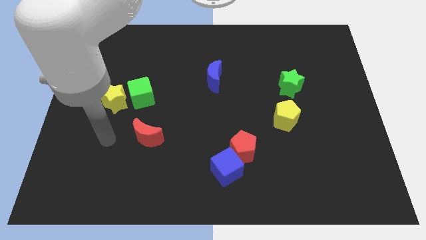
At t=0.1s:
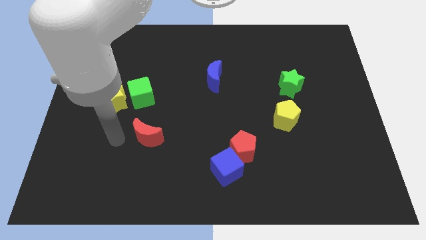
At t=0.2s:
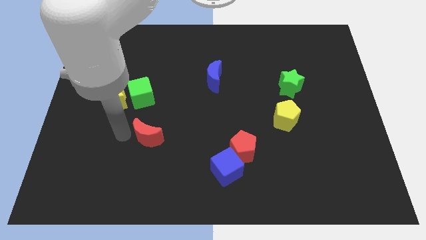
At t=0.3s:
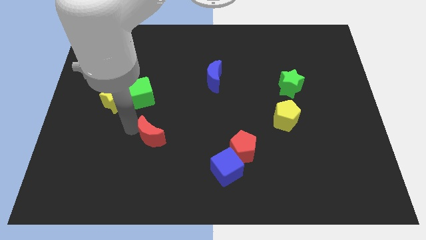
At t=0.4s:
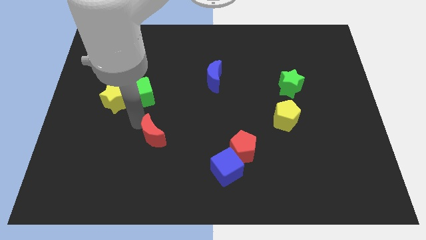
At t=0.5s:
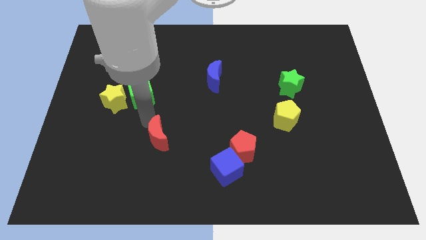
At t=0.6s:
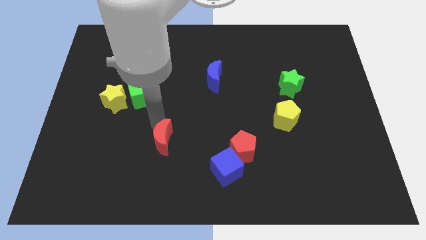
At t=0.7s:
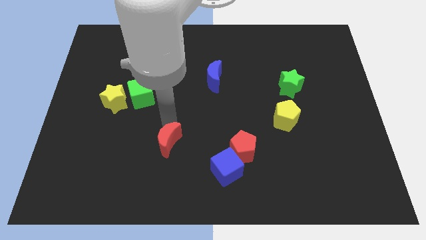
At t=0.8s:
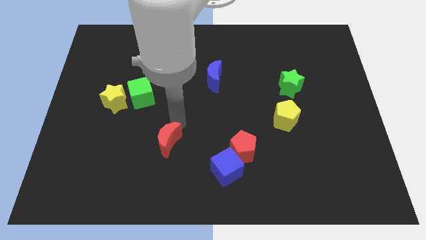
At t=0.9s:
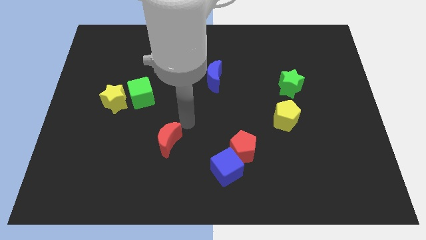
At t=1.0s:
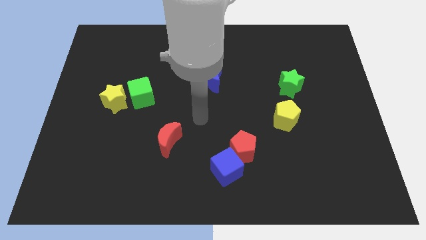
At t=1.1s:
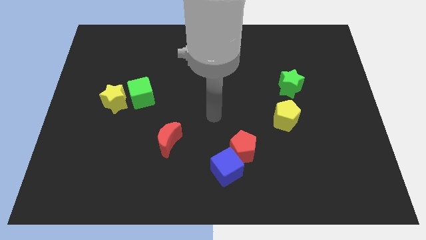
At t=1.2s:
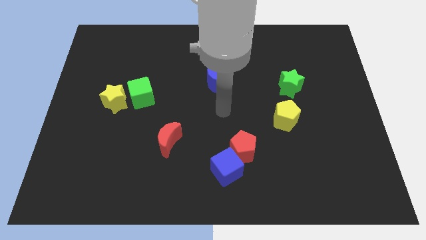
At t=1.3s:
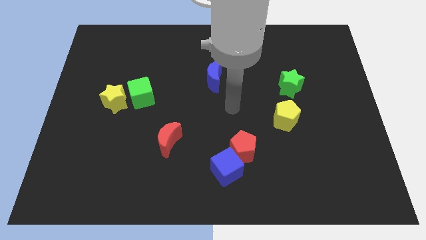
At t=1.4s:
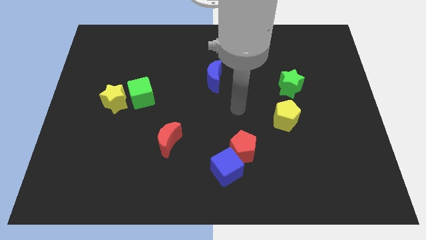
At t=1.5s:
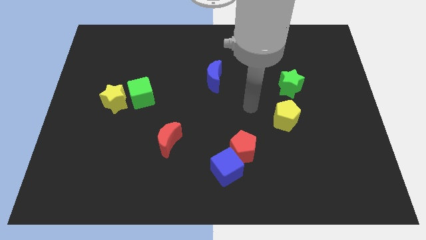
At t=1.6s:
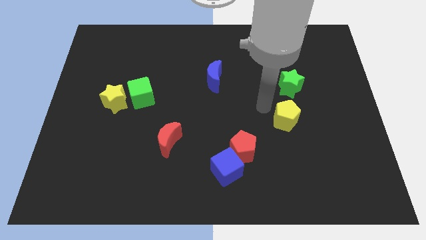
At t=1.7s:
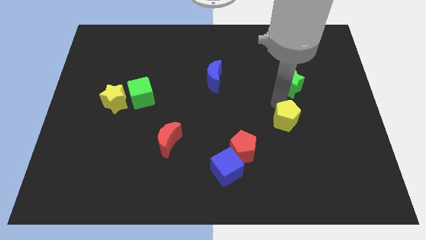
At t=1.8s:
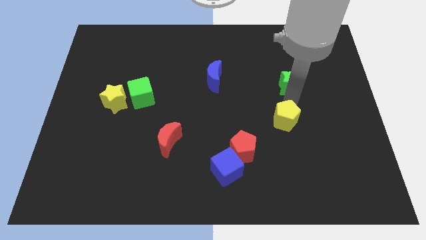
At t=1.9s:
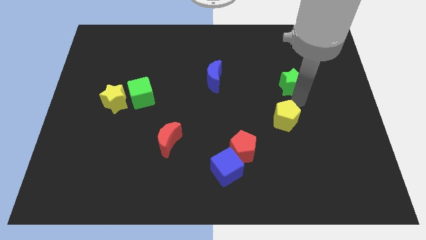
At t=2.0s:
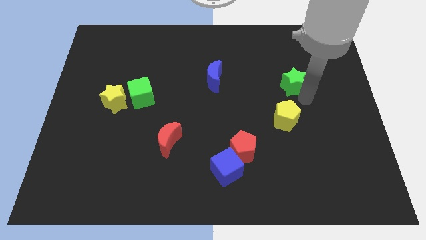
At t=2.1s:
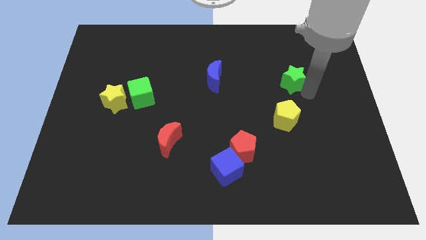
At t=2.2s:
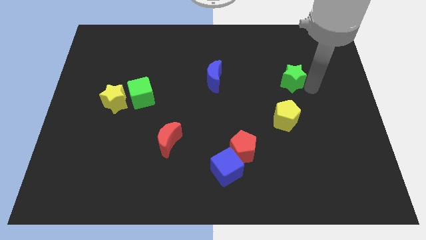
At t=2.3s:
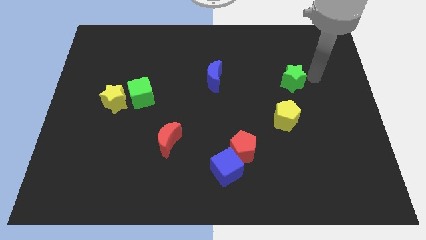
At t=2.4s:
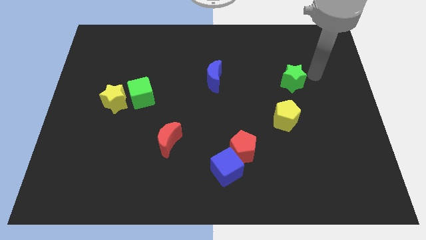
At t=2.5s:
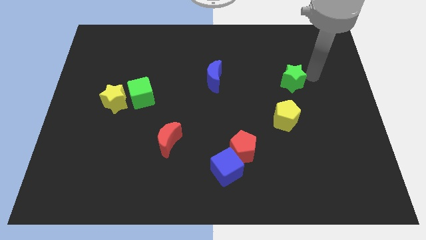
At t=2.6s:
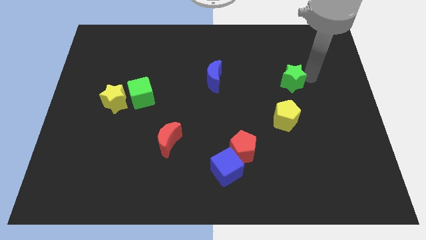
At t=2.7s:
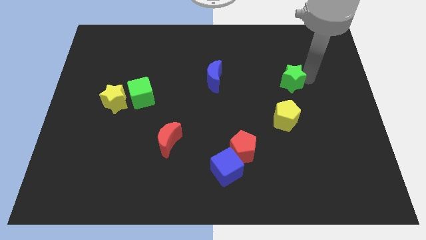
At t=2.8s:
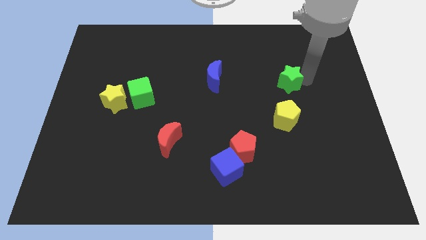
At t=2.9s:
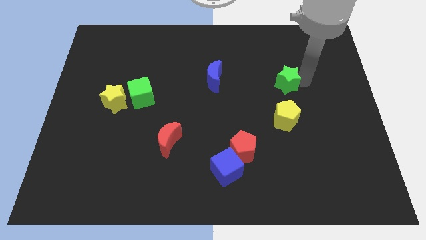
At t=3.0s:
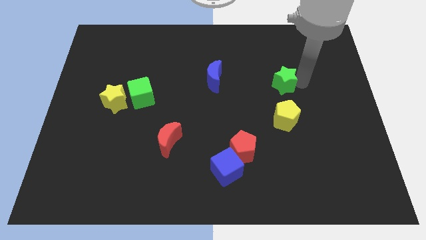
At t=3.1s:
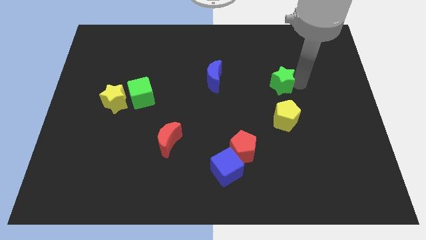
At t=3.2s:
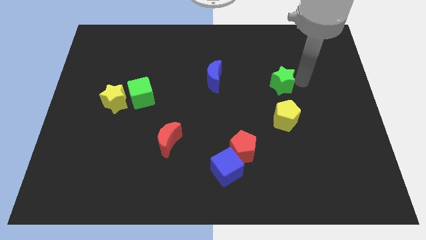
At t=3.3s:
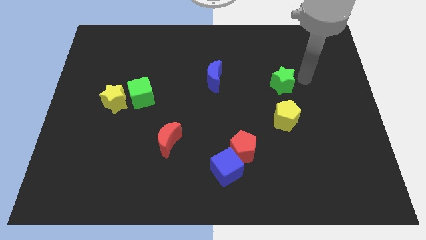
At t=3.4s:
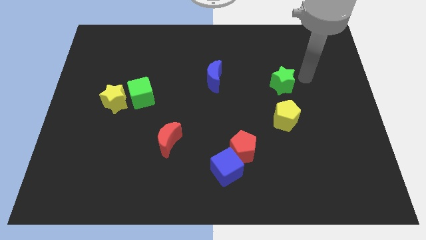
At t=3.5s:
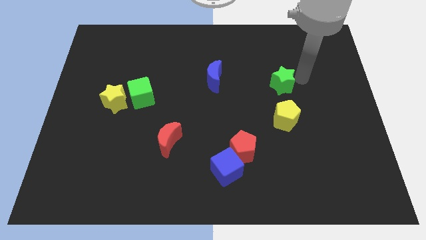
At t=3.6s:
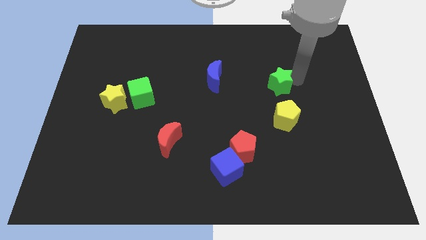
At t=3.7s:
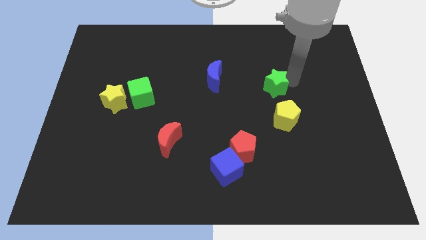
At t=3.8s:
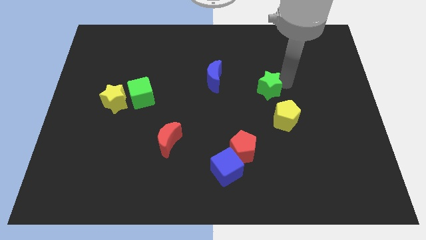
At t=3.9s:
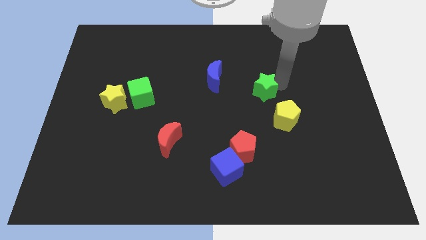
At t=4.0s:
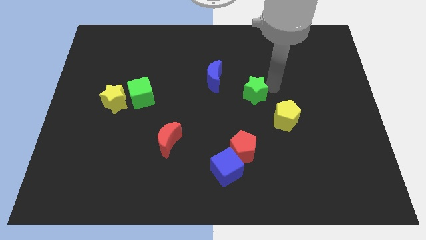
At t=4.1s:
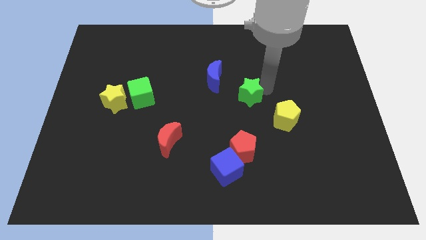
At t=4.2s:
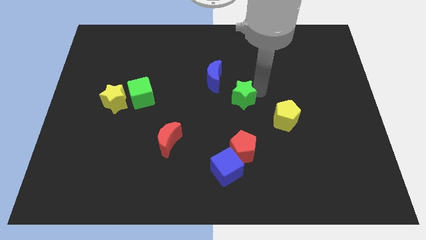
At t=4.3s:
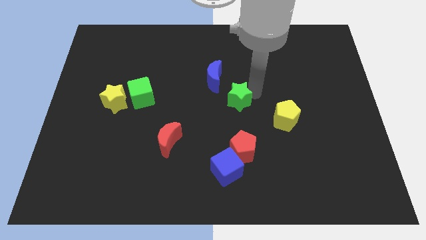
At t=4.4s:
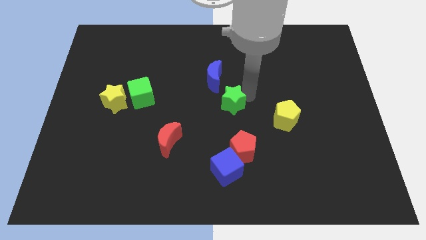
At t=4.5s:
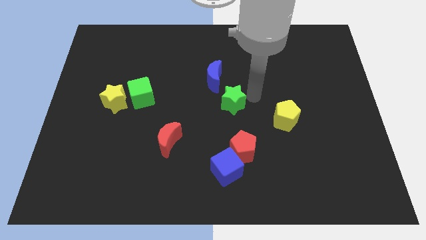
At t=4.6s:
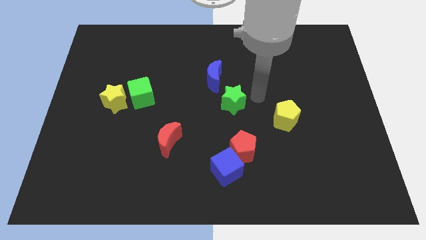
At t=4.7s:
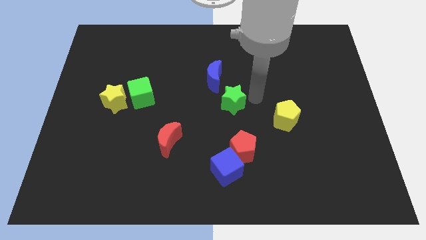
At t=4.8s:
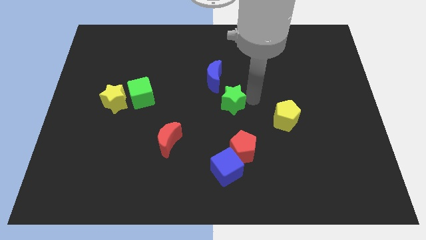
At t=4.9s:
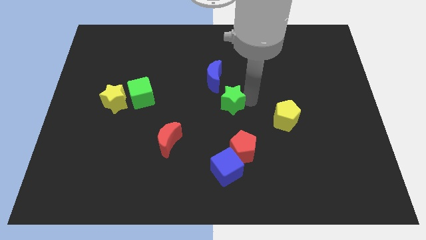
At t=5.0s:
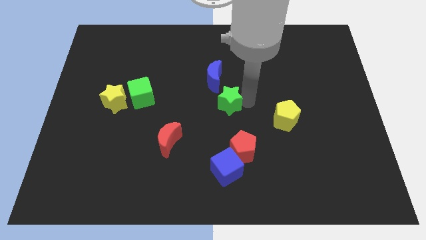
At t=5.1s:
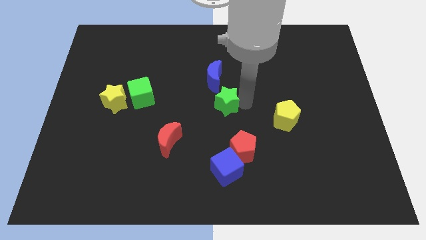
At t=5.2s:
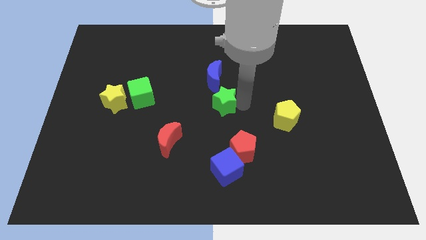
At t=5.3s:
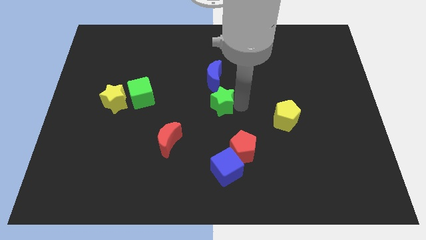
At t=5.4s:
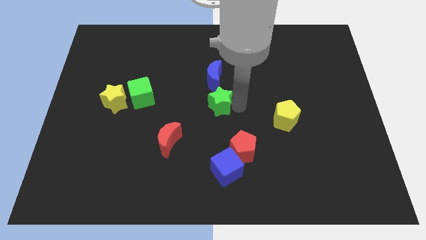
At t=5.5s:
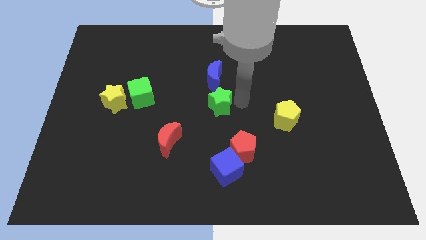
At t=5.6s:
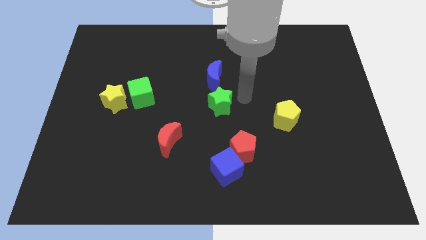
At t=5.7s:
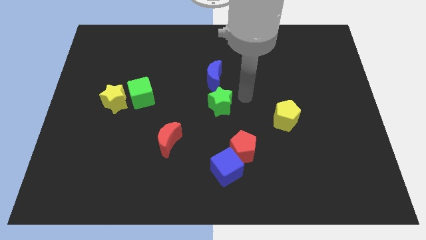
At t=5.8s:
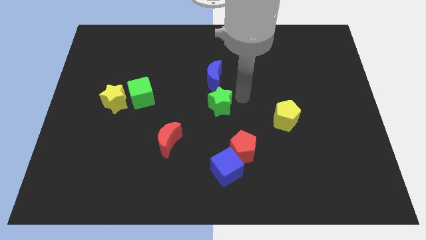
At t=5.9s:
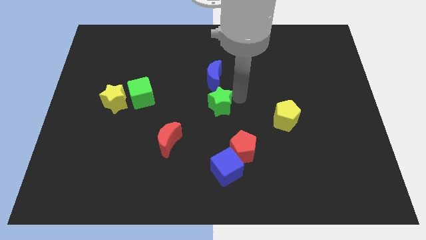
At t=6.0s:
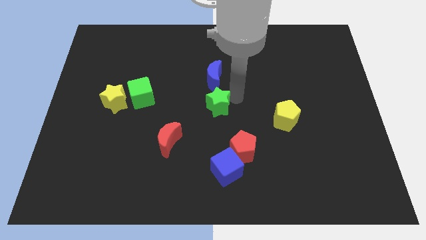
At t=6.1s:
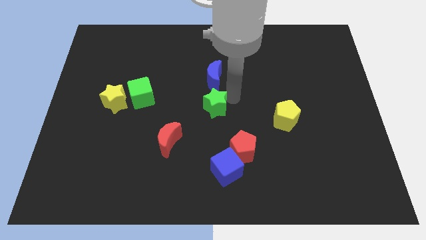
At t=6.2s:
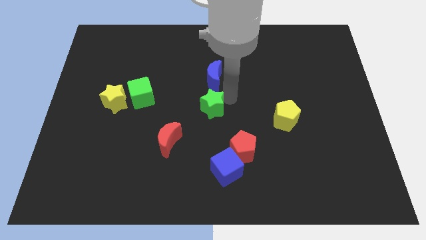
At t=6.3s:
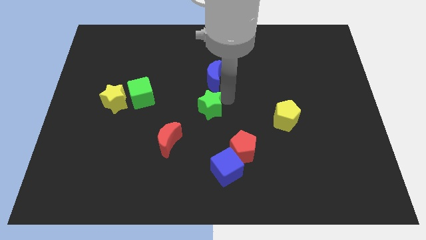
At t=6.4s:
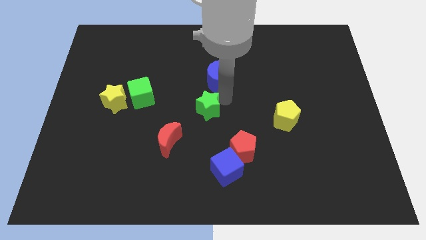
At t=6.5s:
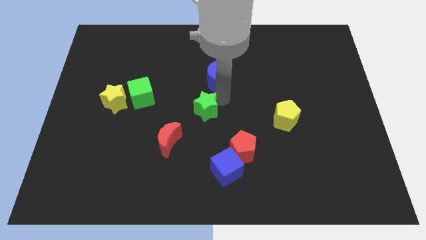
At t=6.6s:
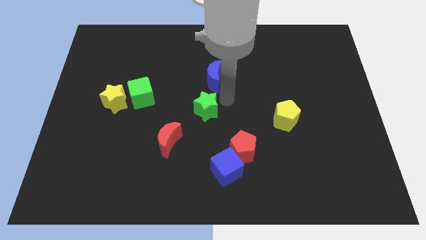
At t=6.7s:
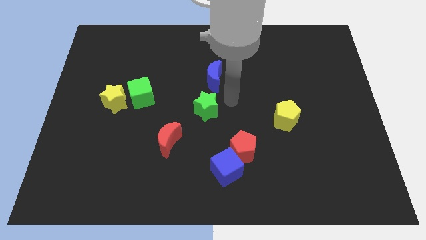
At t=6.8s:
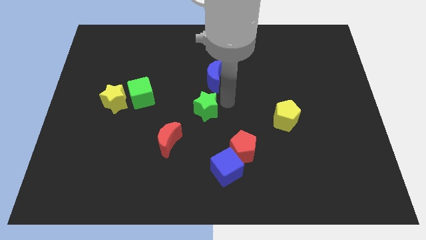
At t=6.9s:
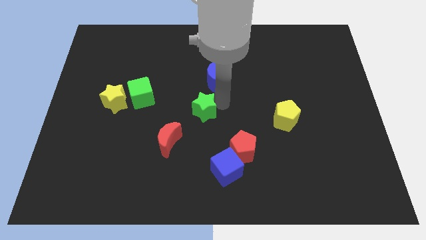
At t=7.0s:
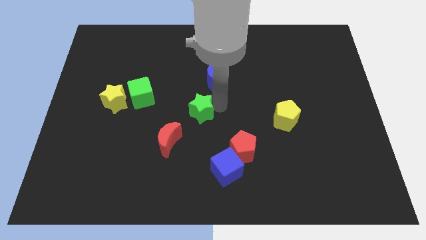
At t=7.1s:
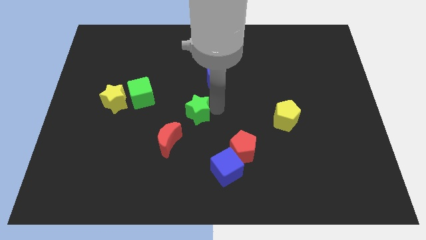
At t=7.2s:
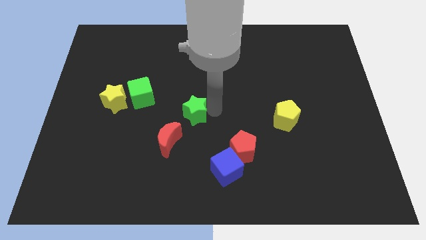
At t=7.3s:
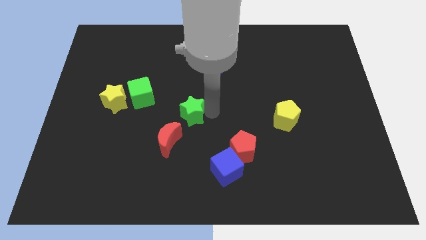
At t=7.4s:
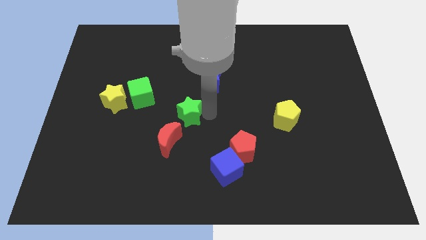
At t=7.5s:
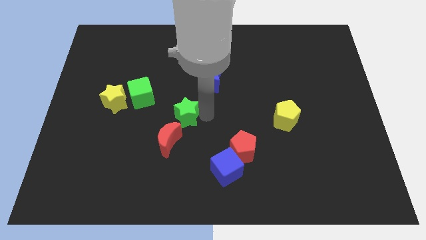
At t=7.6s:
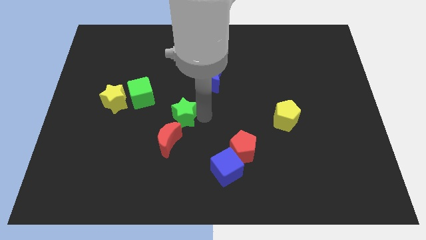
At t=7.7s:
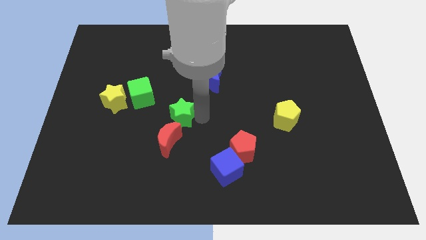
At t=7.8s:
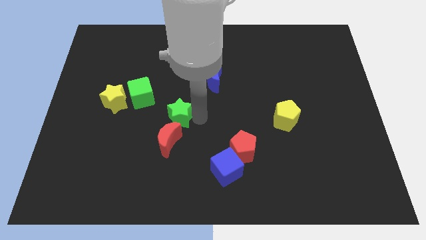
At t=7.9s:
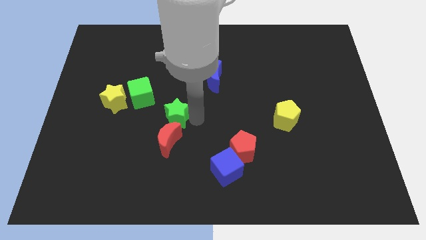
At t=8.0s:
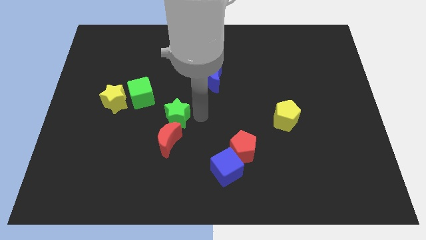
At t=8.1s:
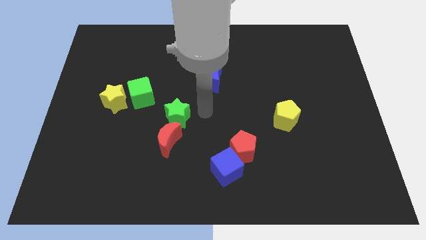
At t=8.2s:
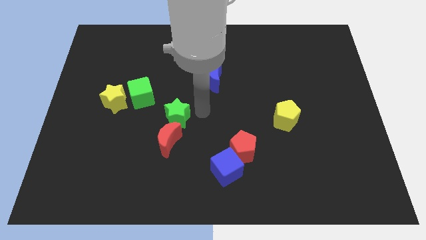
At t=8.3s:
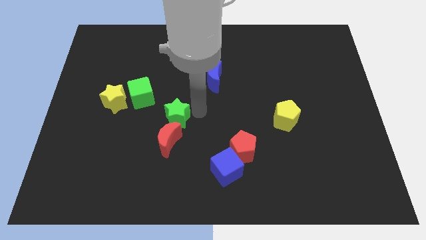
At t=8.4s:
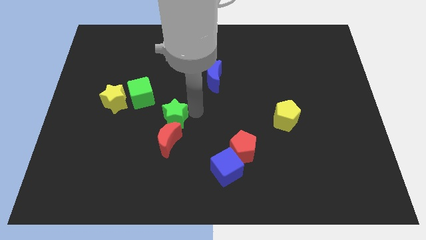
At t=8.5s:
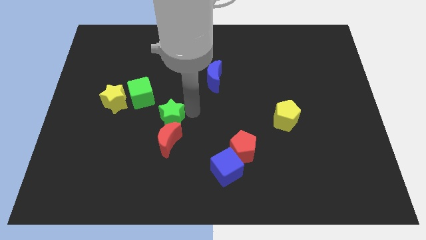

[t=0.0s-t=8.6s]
push the green star diagonally up and to the left of the red moon
